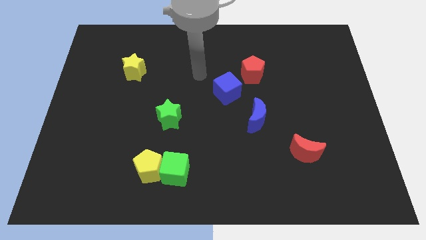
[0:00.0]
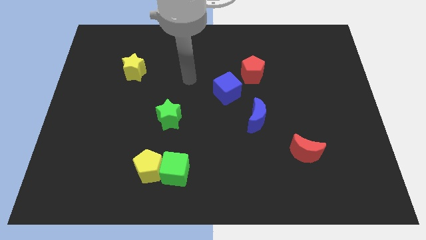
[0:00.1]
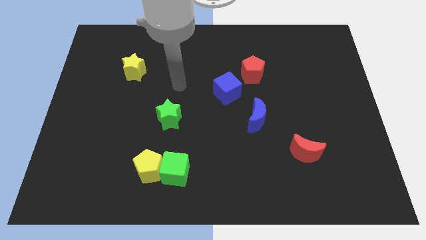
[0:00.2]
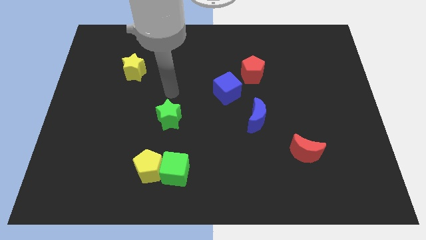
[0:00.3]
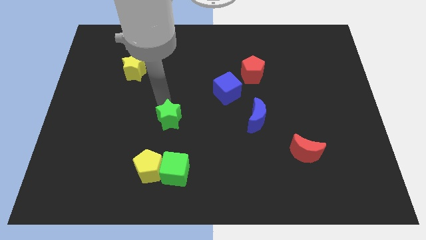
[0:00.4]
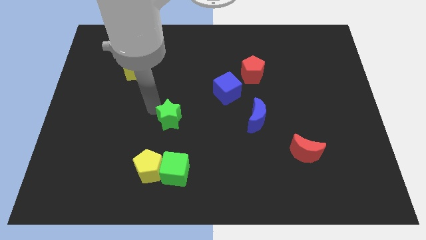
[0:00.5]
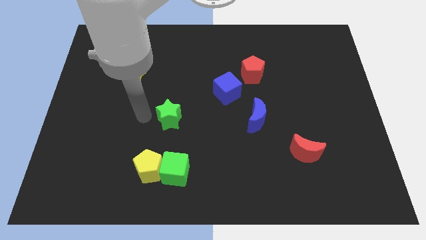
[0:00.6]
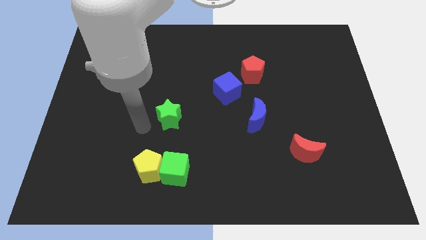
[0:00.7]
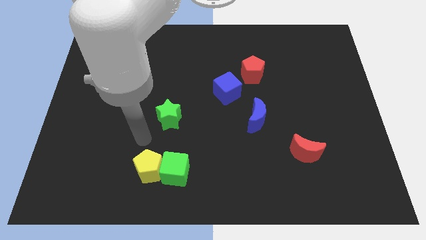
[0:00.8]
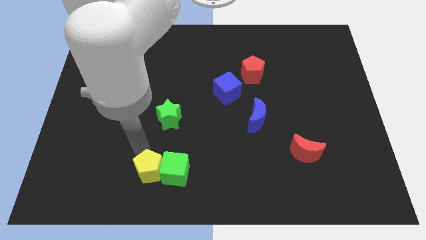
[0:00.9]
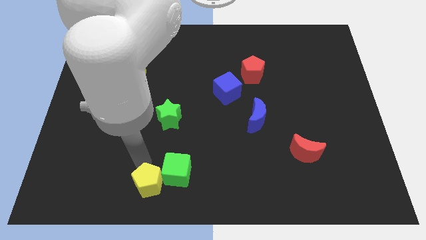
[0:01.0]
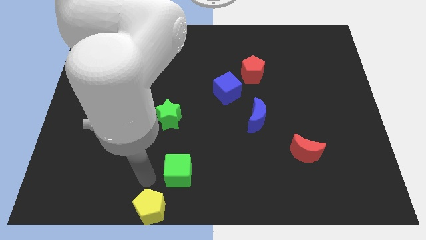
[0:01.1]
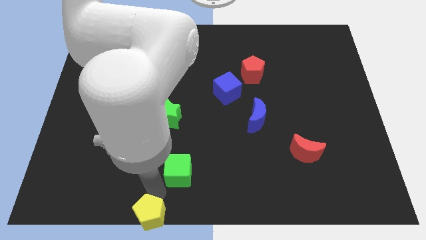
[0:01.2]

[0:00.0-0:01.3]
separate the green cube from the yellow pentagon
